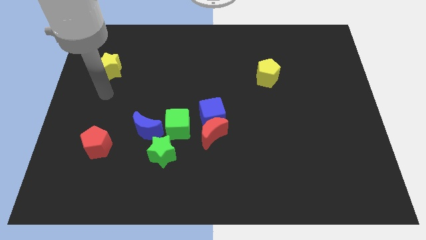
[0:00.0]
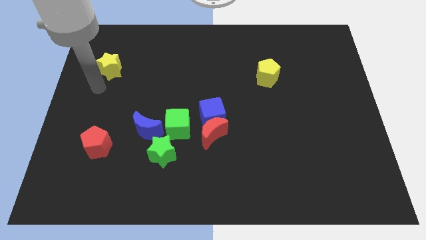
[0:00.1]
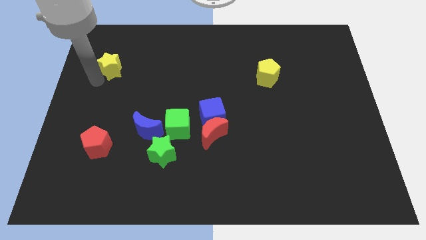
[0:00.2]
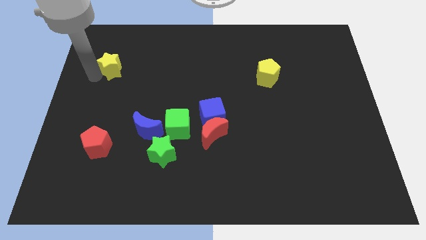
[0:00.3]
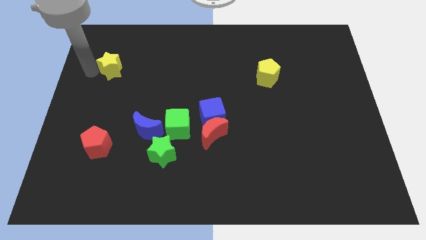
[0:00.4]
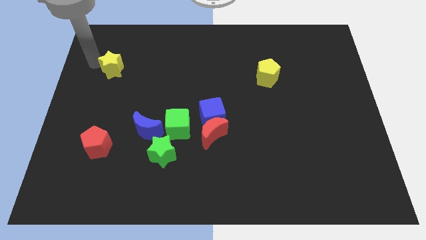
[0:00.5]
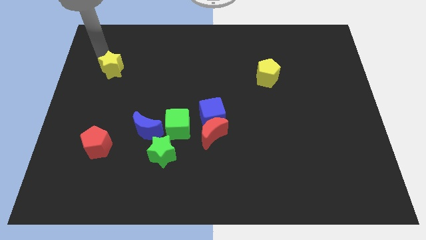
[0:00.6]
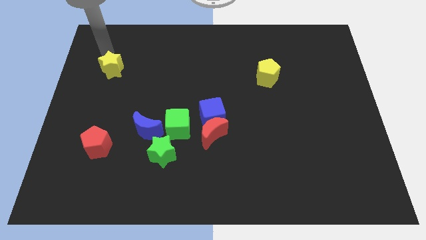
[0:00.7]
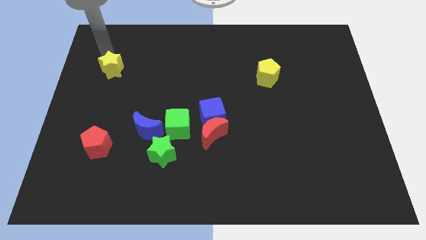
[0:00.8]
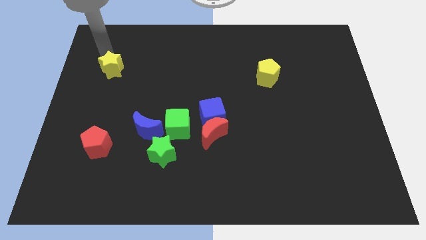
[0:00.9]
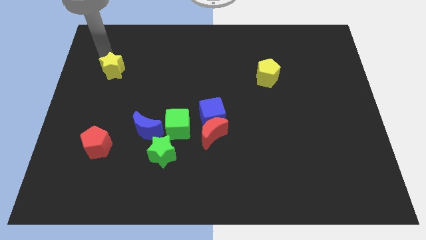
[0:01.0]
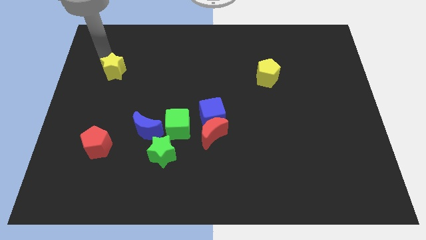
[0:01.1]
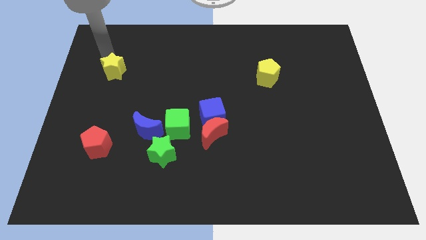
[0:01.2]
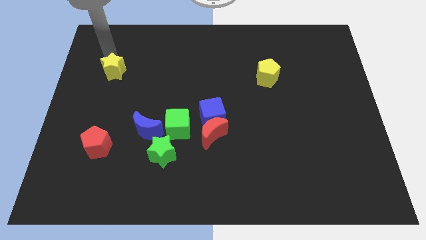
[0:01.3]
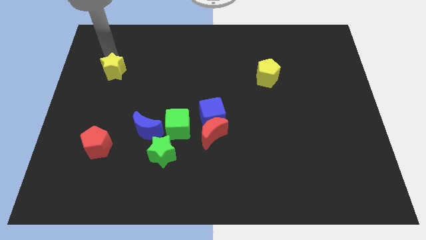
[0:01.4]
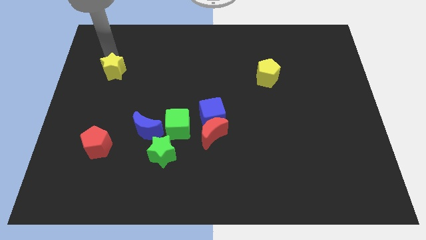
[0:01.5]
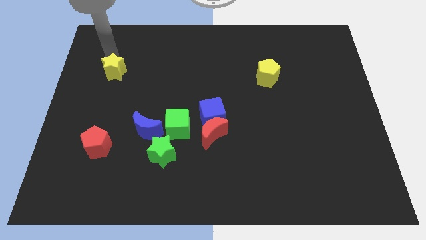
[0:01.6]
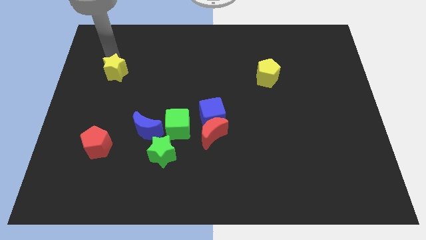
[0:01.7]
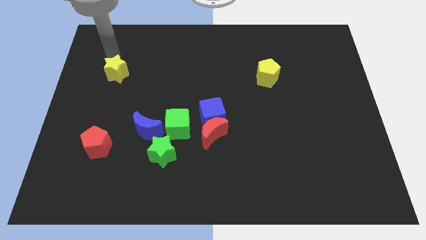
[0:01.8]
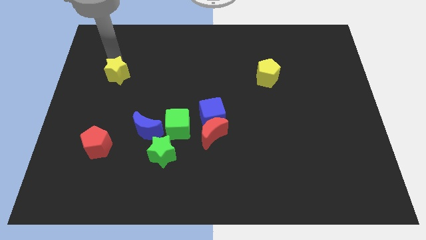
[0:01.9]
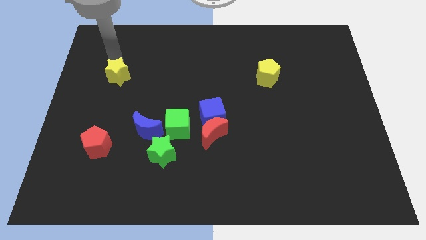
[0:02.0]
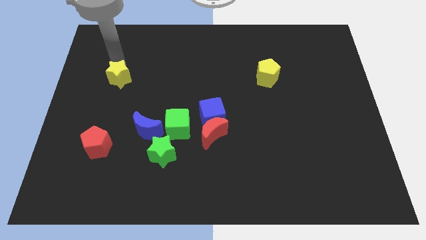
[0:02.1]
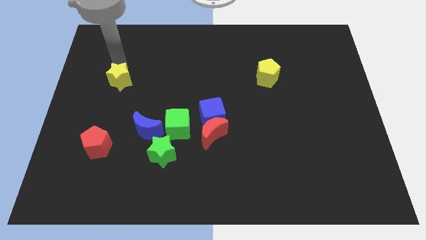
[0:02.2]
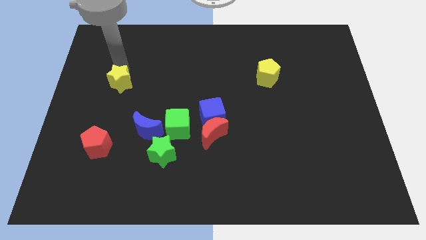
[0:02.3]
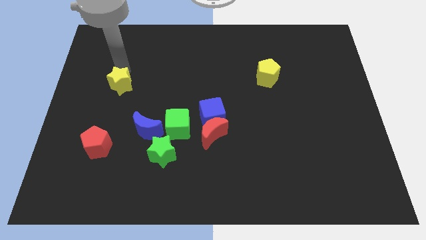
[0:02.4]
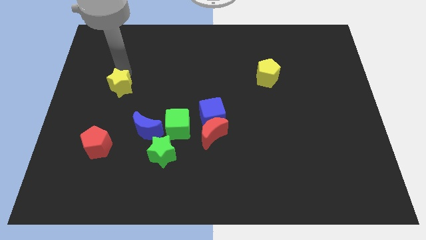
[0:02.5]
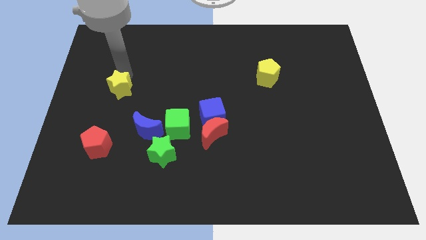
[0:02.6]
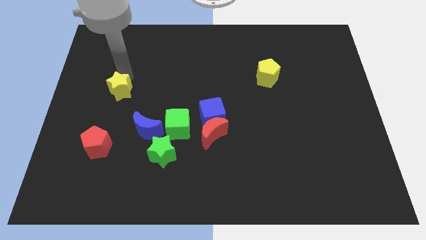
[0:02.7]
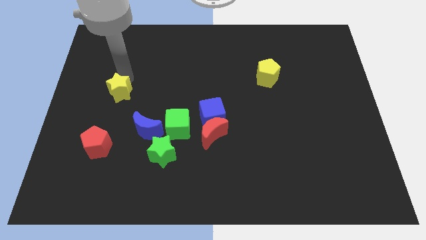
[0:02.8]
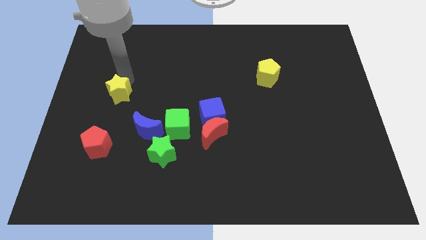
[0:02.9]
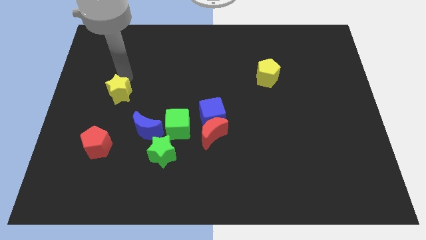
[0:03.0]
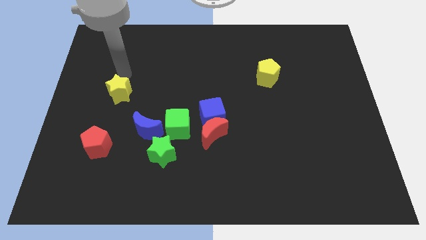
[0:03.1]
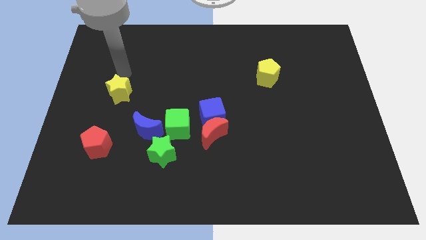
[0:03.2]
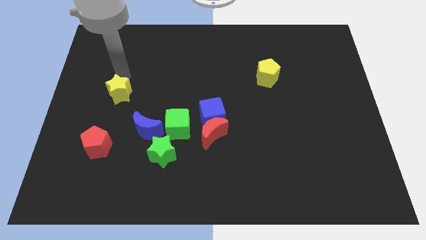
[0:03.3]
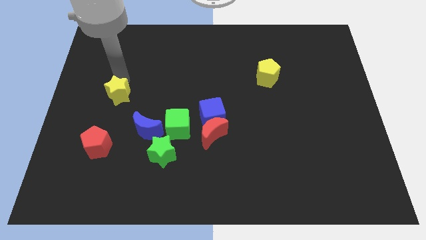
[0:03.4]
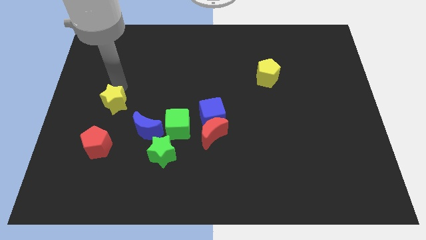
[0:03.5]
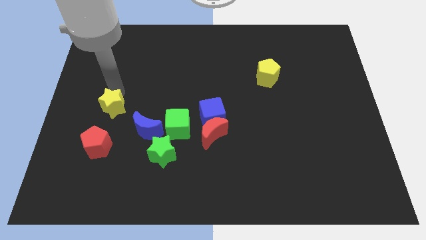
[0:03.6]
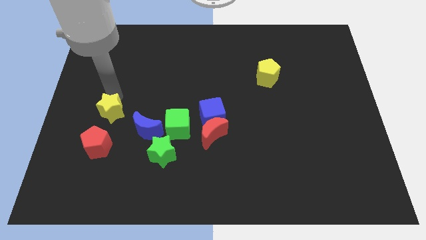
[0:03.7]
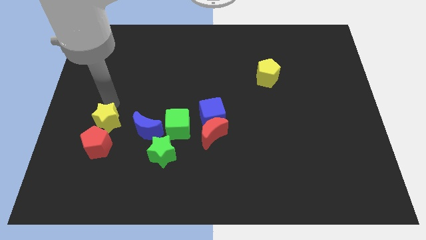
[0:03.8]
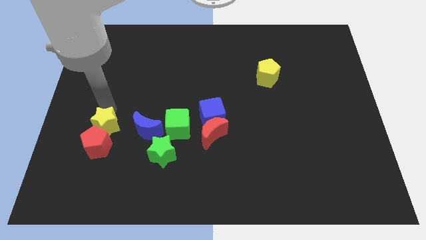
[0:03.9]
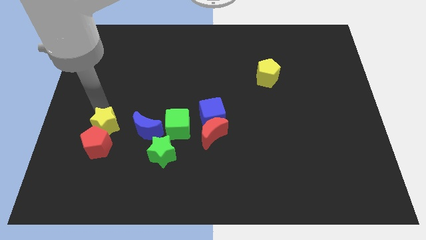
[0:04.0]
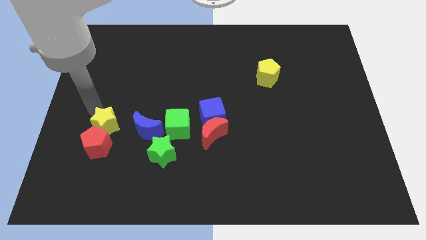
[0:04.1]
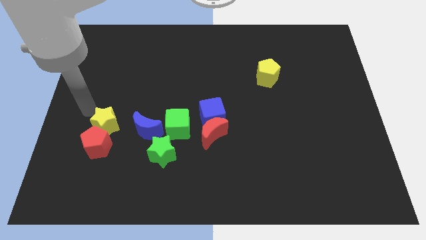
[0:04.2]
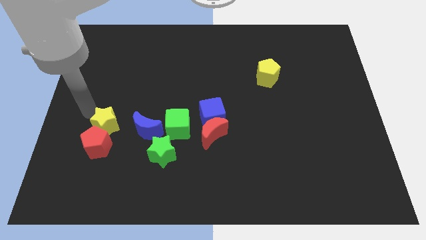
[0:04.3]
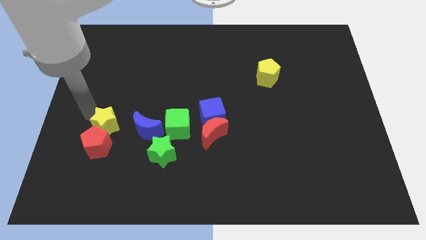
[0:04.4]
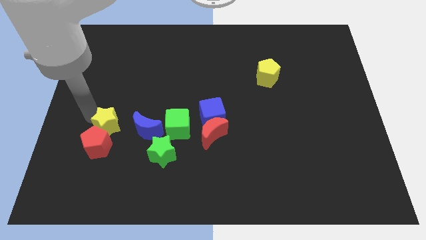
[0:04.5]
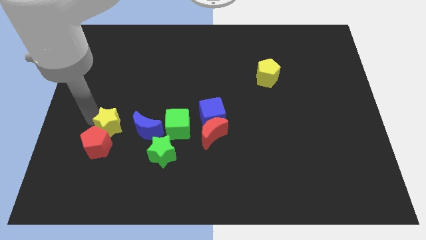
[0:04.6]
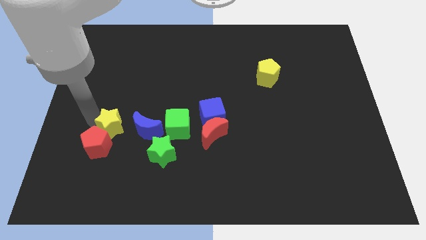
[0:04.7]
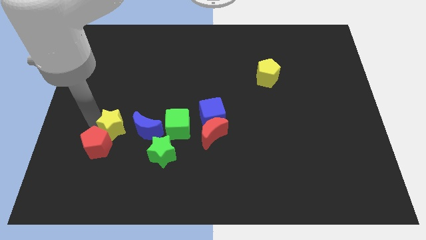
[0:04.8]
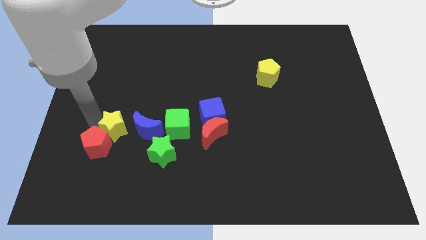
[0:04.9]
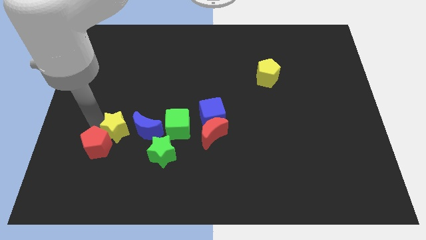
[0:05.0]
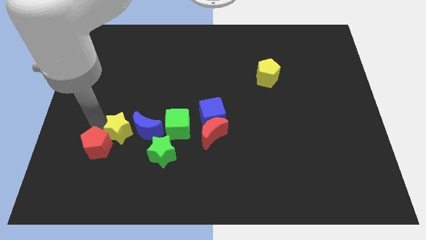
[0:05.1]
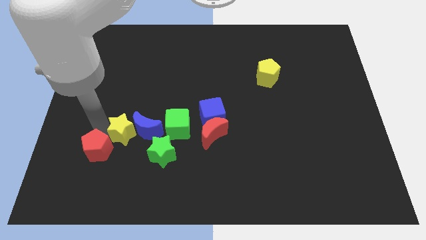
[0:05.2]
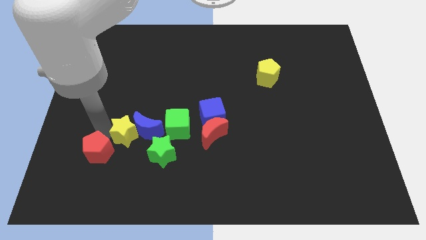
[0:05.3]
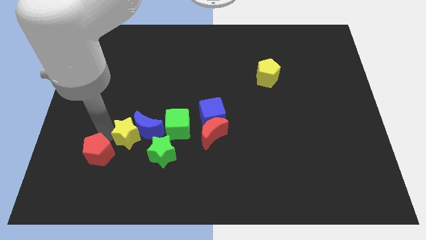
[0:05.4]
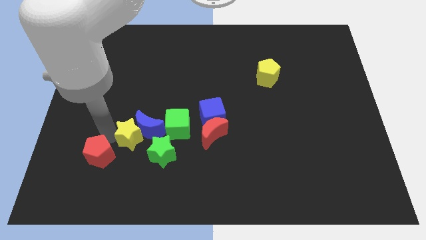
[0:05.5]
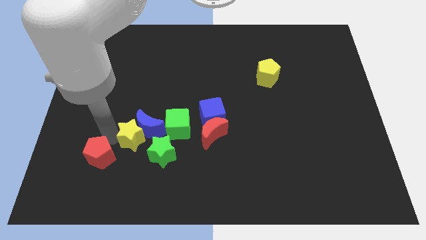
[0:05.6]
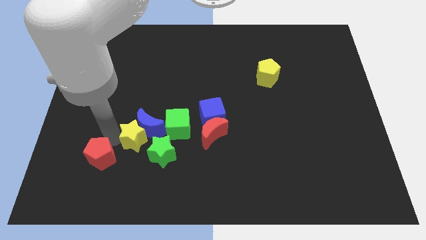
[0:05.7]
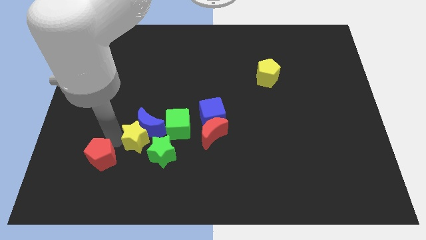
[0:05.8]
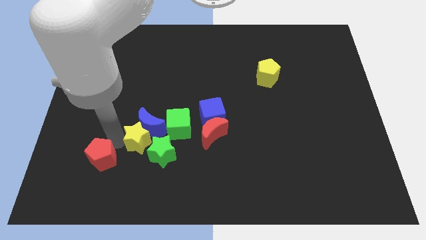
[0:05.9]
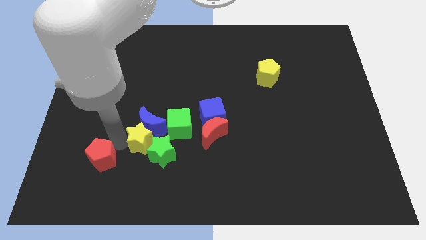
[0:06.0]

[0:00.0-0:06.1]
move the yellow star next to the green star

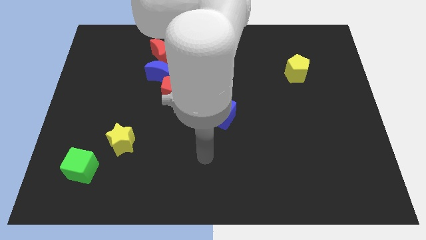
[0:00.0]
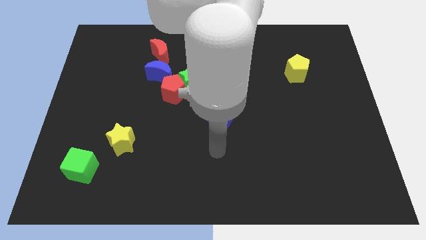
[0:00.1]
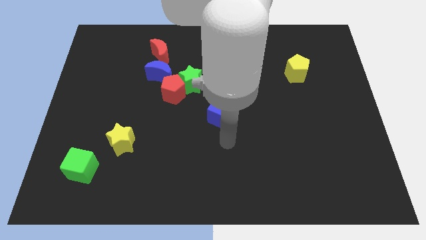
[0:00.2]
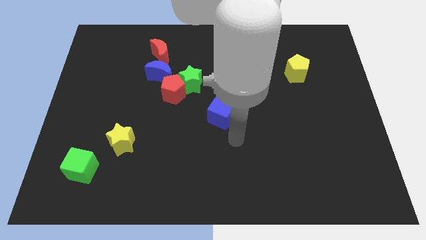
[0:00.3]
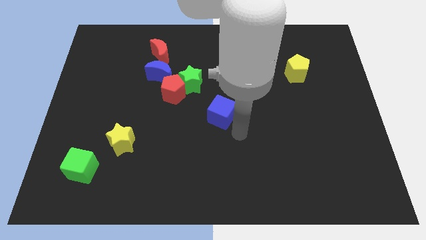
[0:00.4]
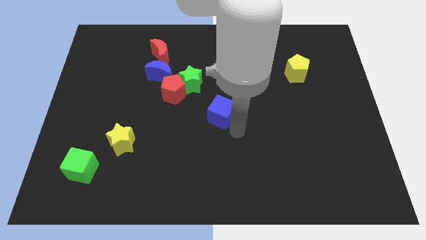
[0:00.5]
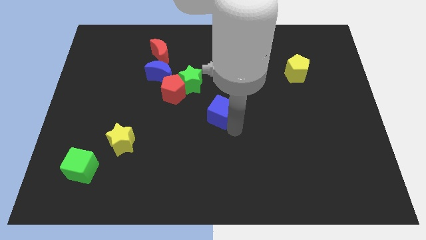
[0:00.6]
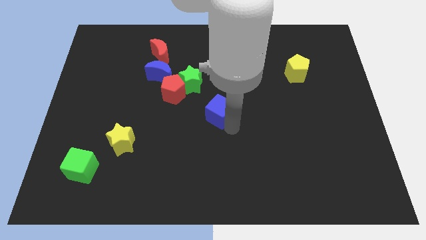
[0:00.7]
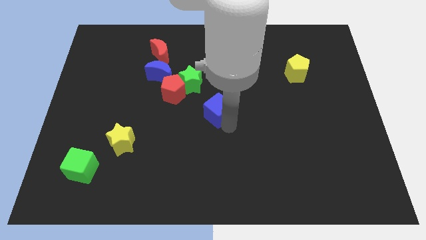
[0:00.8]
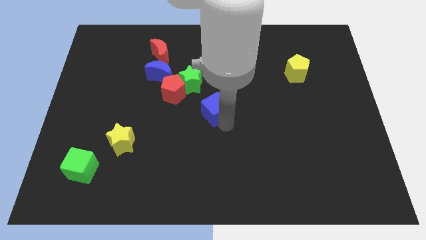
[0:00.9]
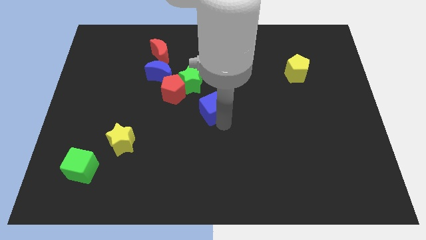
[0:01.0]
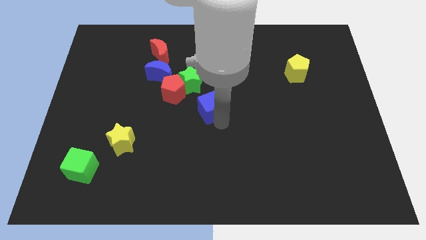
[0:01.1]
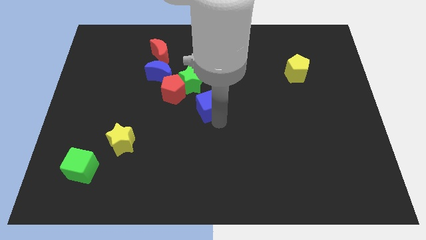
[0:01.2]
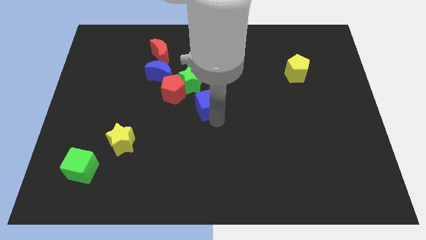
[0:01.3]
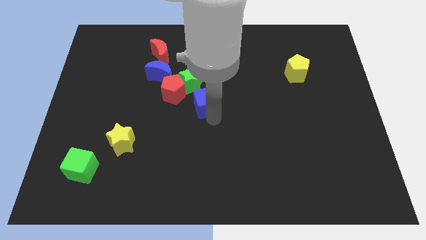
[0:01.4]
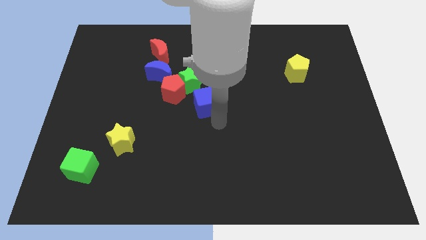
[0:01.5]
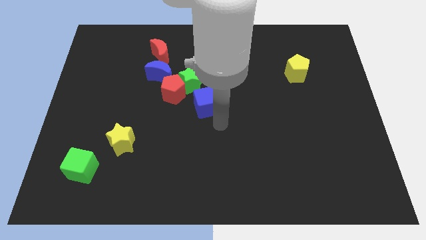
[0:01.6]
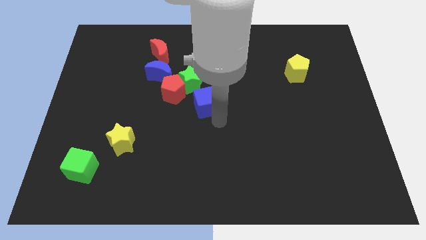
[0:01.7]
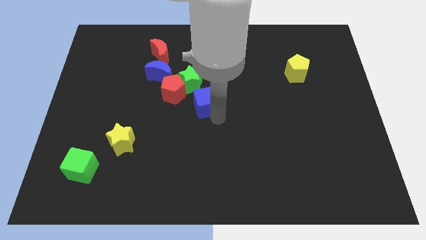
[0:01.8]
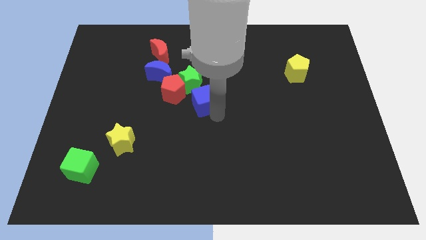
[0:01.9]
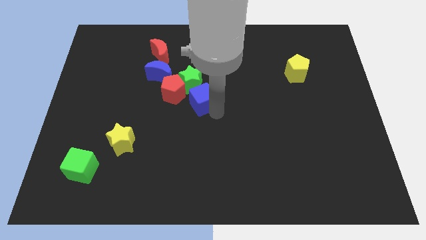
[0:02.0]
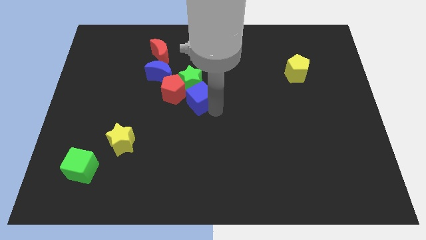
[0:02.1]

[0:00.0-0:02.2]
move the blue cube next to the green star
